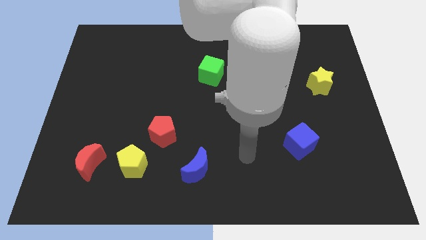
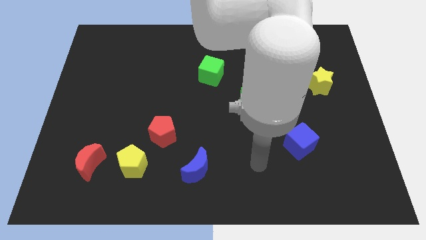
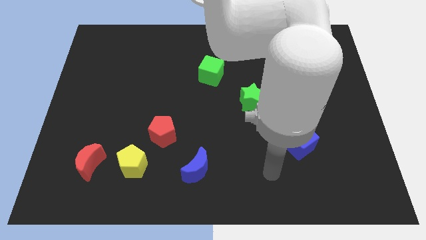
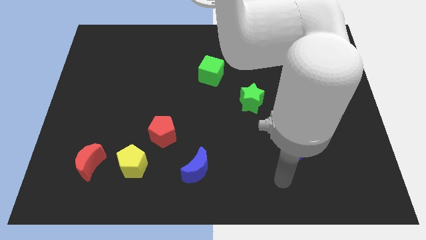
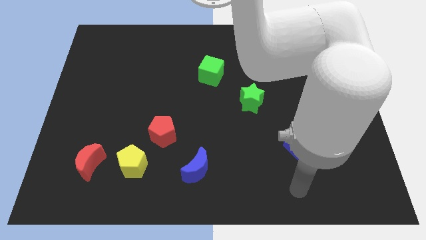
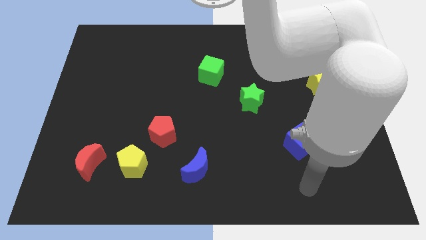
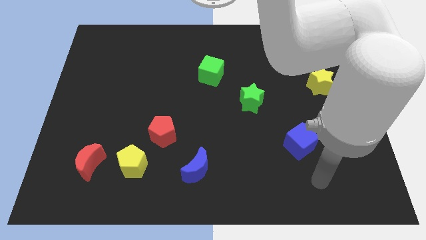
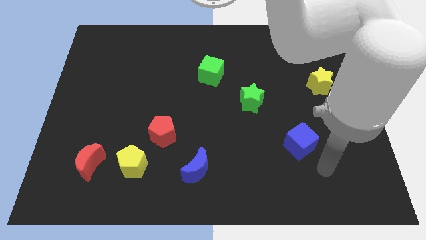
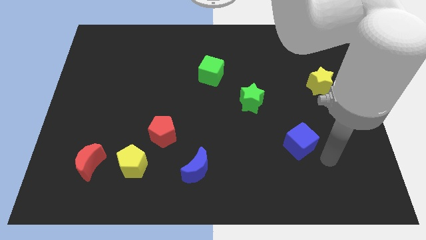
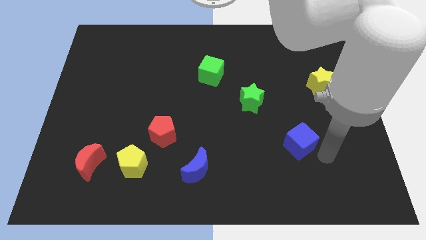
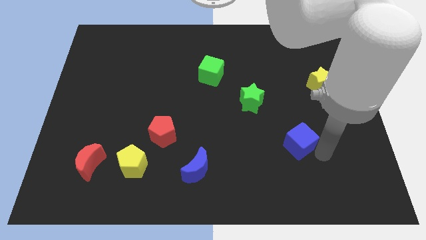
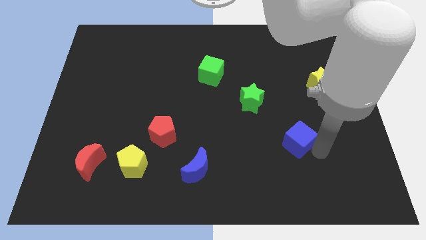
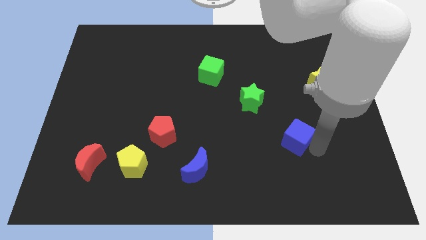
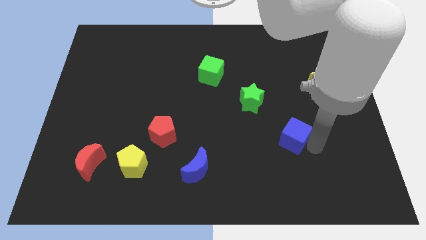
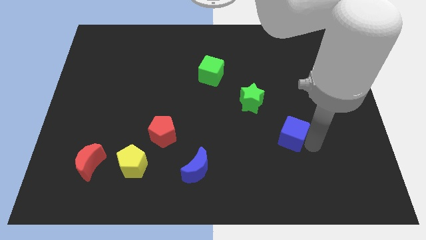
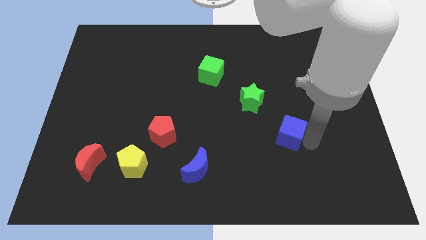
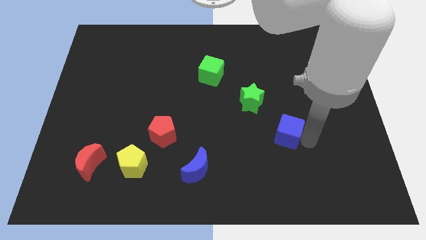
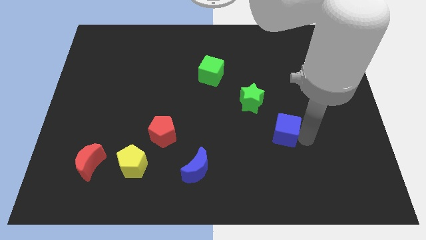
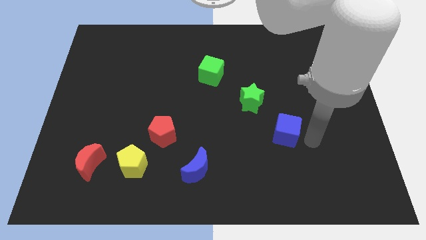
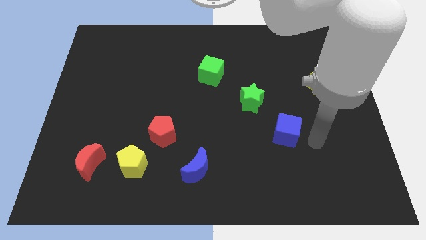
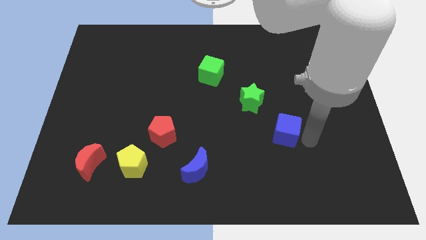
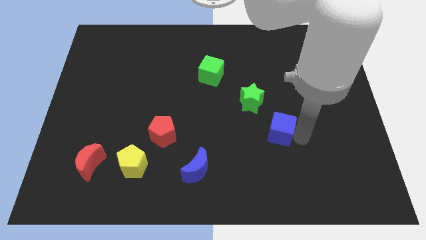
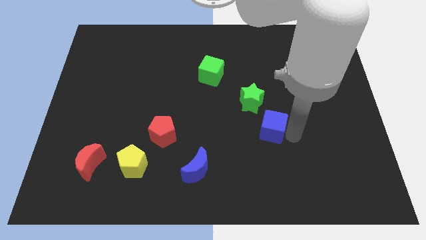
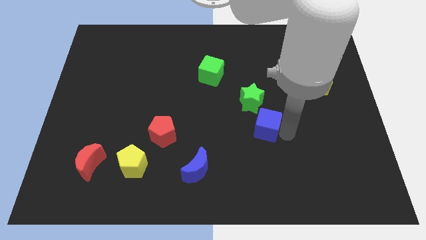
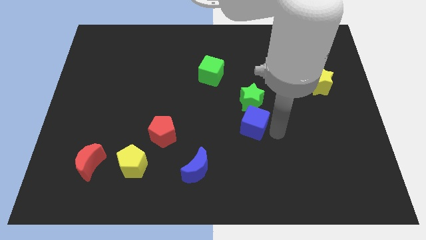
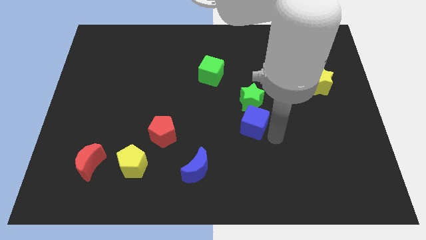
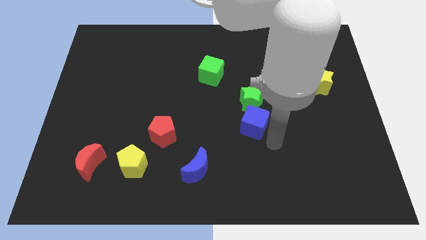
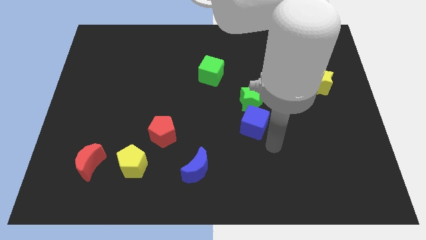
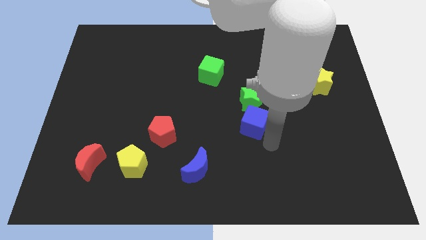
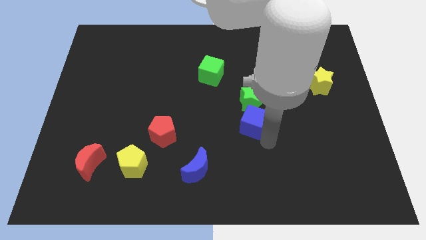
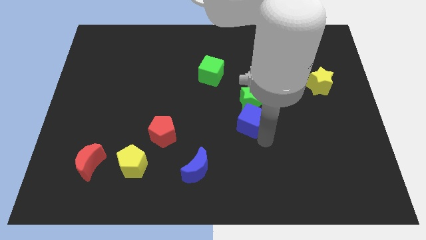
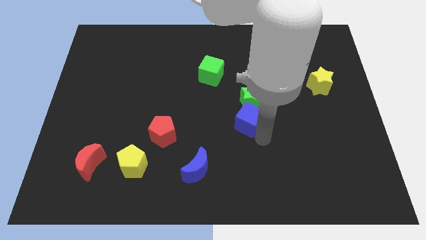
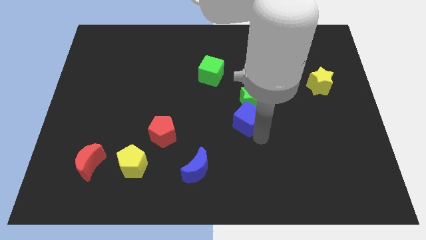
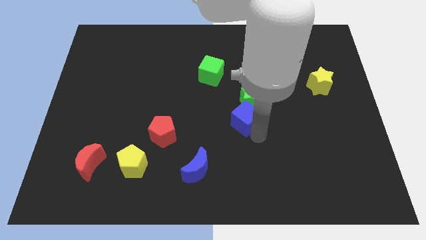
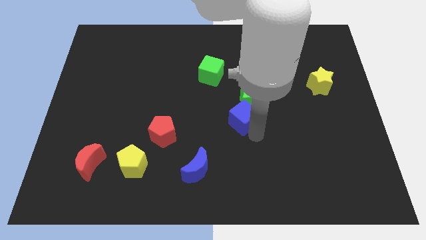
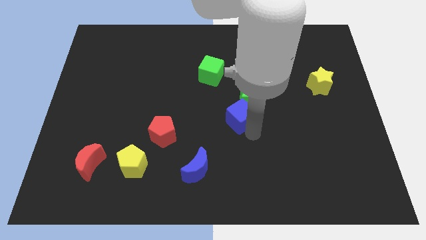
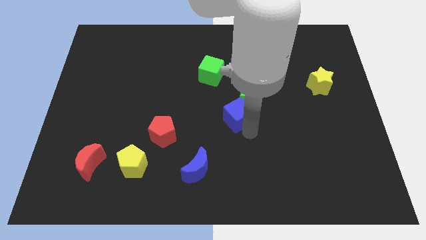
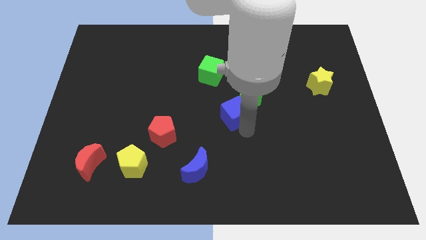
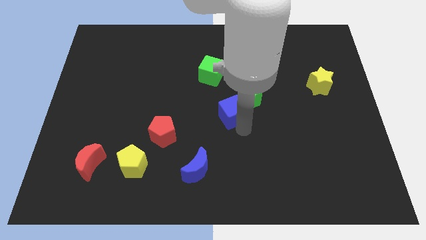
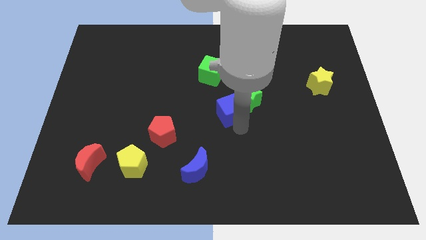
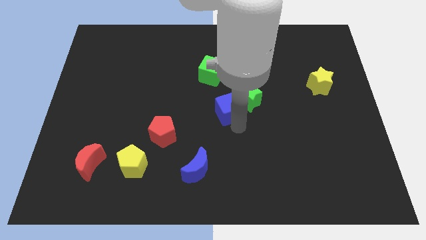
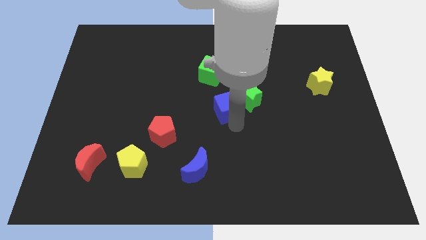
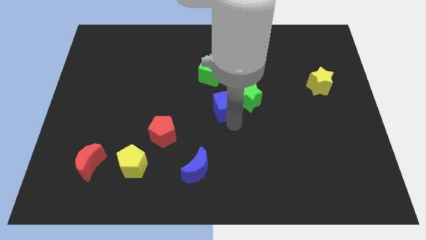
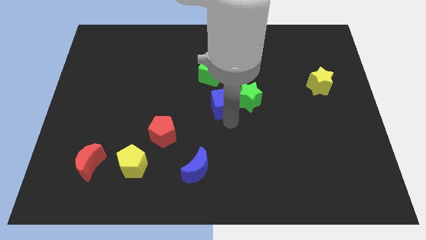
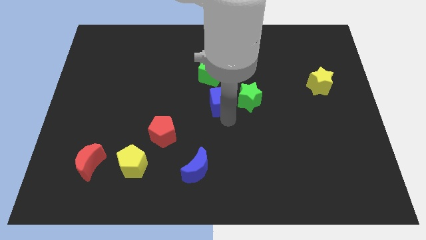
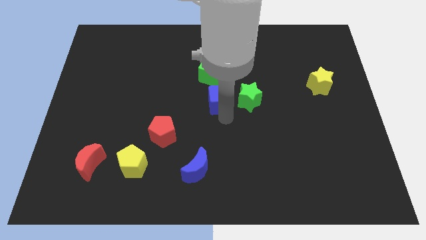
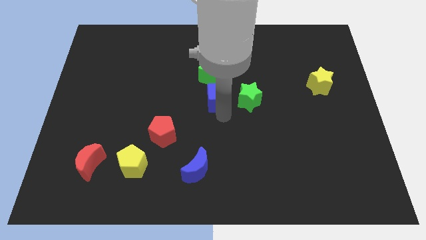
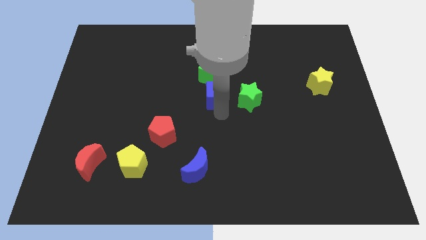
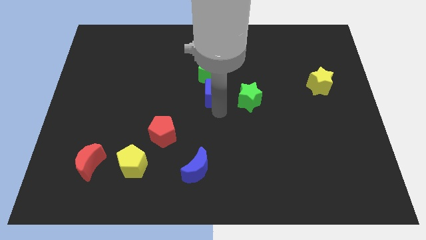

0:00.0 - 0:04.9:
put the blue cube to the top left of the green star

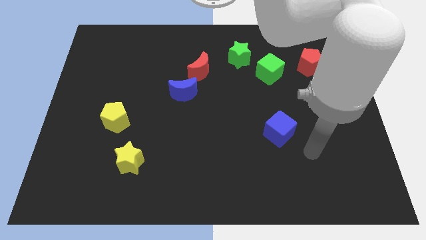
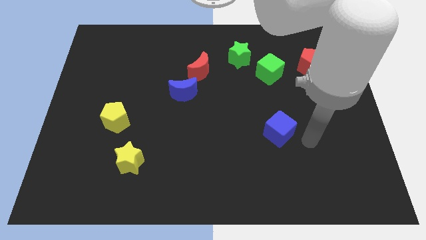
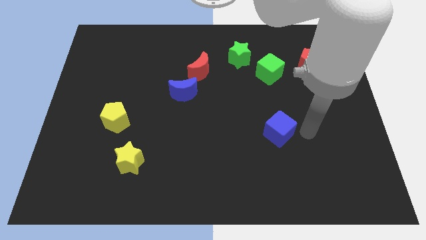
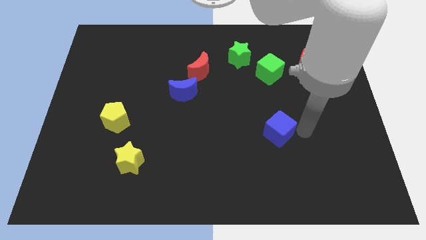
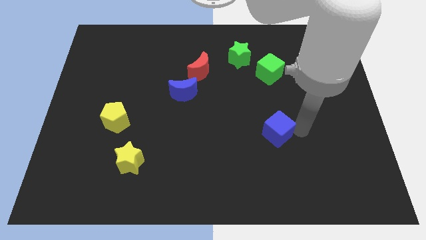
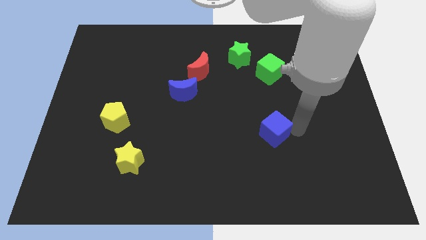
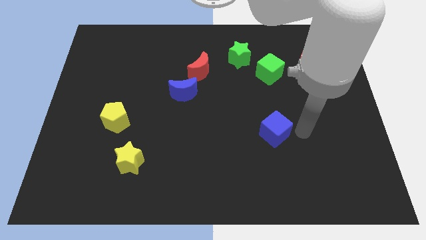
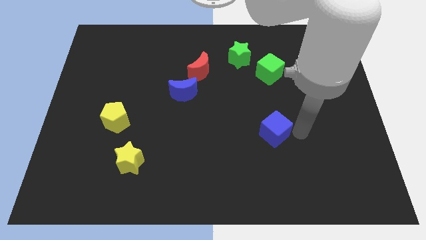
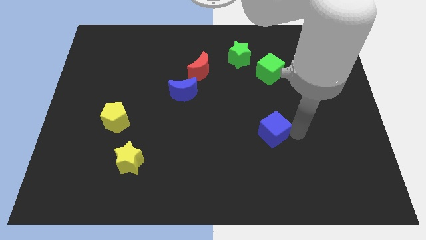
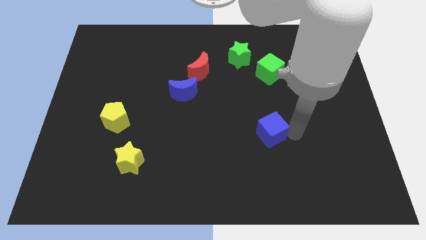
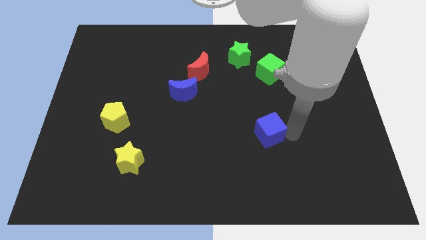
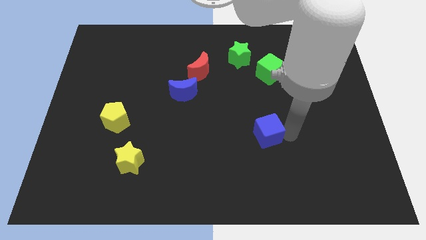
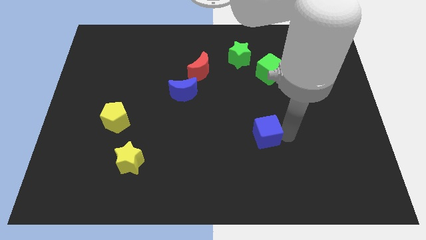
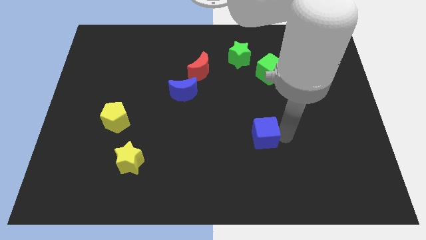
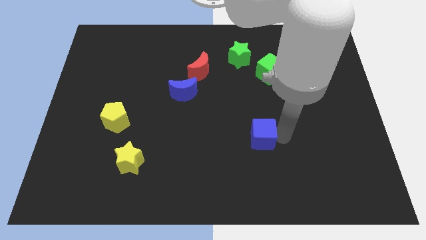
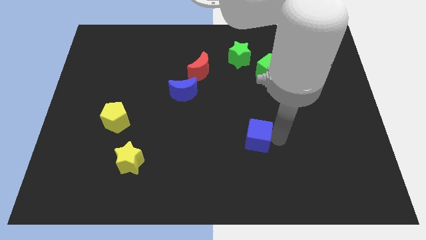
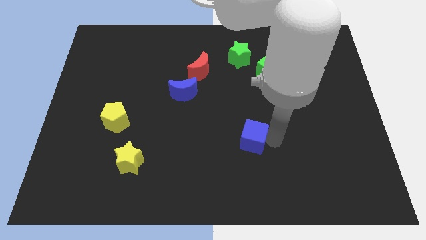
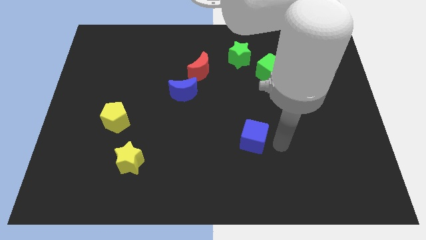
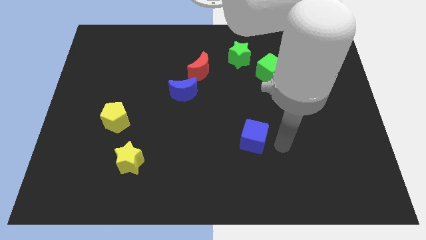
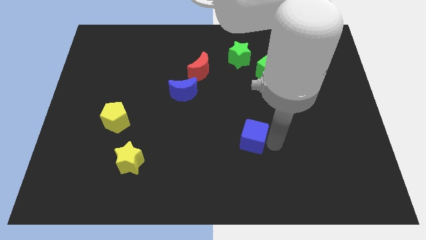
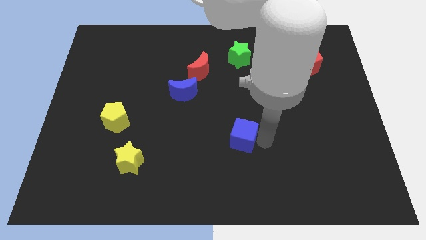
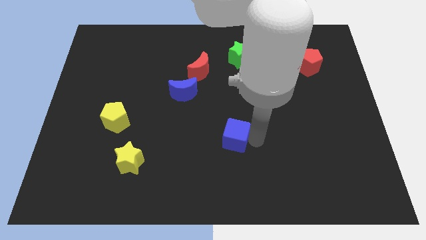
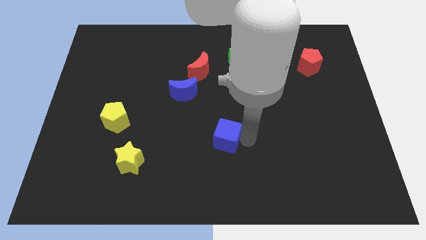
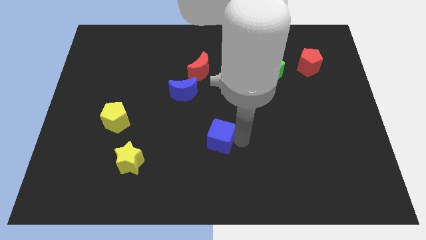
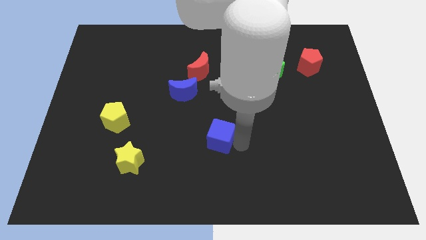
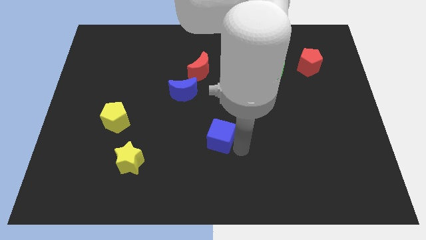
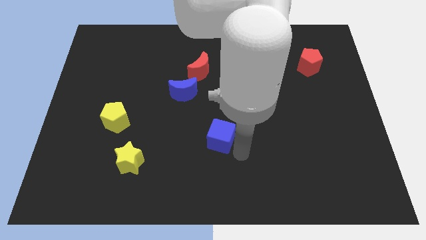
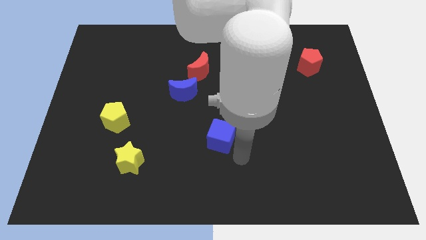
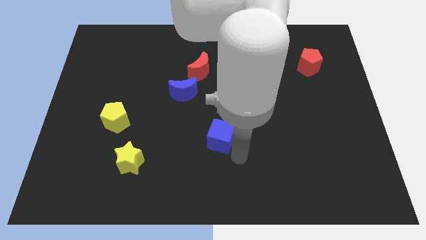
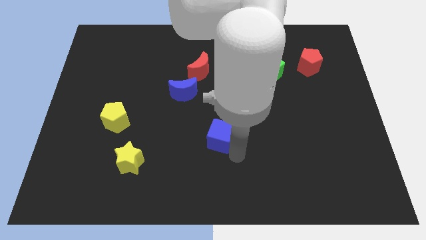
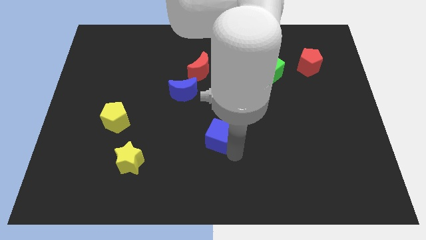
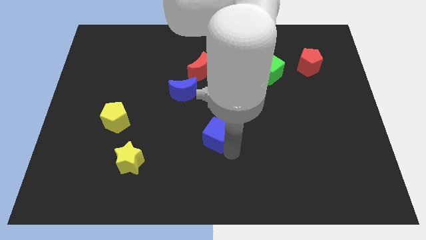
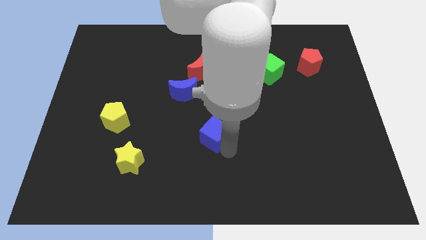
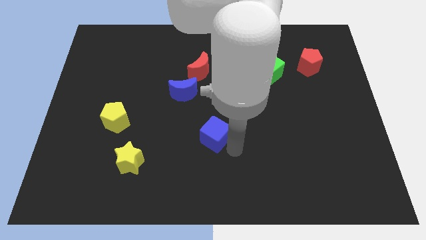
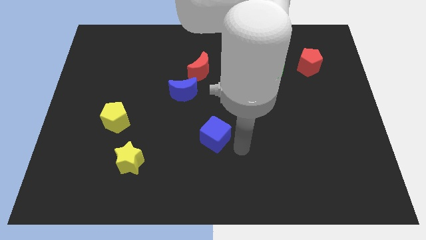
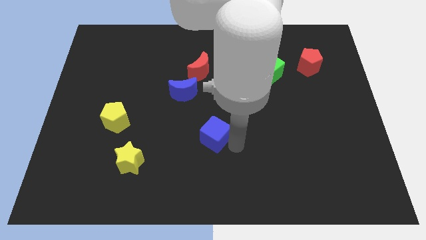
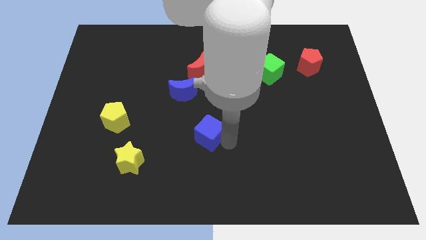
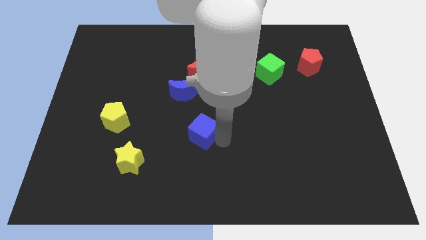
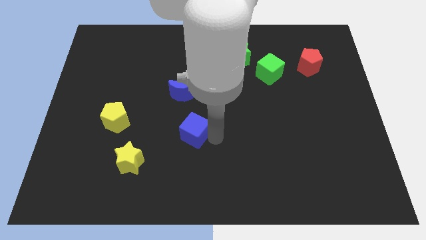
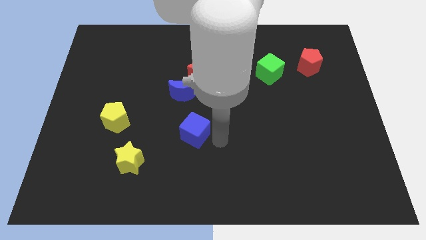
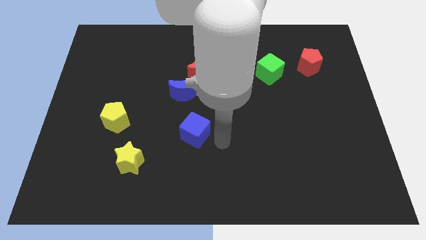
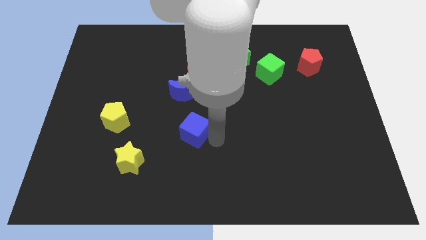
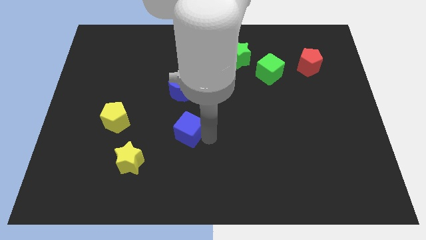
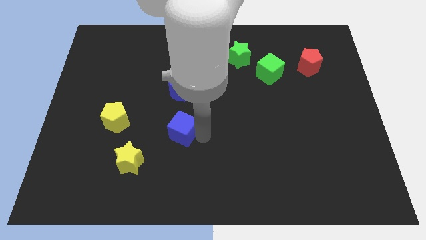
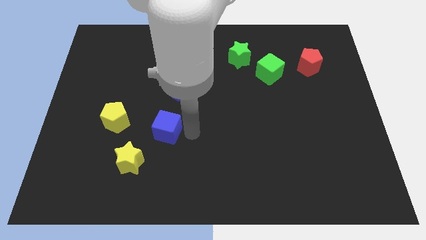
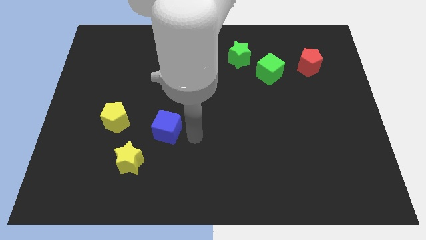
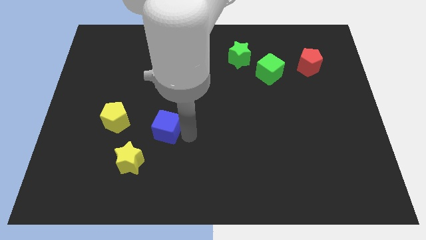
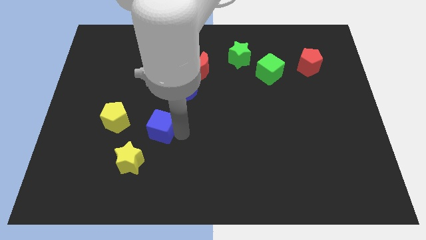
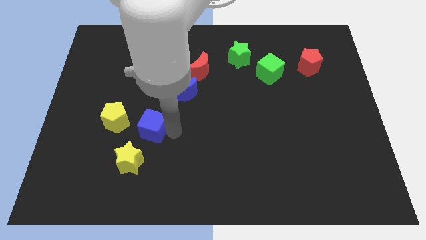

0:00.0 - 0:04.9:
move the blue cube to the top side of the yellow star
